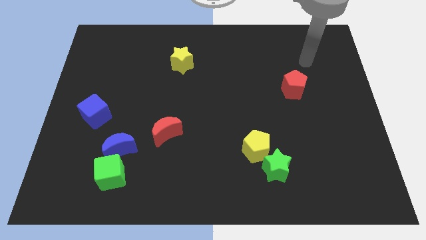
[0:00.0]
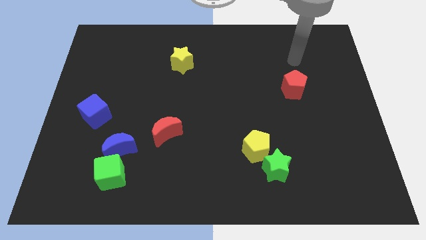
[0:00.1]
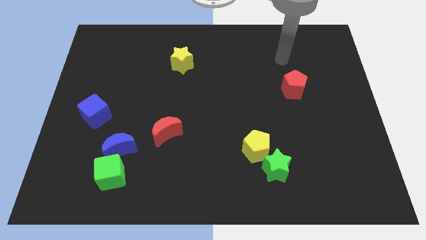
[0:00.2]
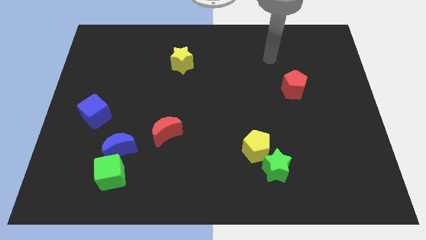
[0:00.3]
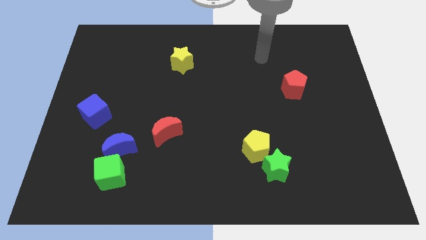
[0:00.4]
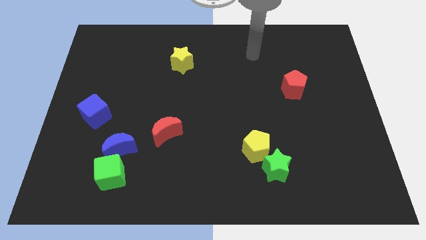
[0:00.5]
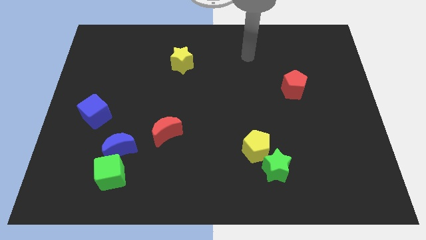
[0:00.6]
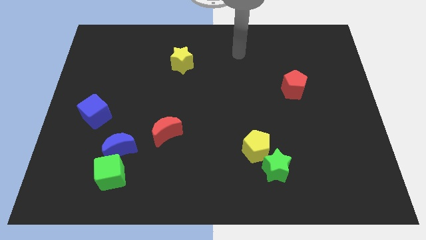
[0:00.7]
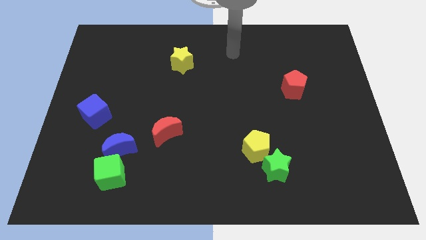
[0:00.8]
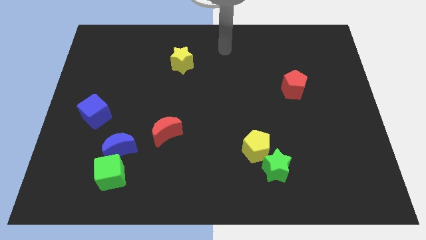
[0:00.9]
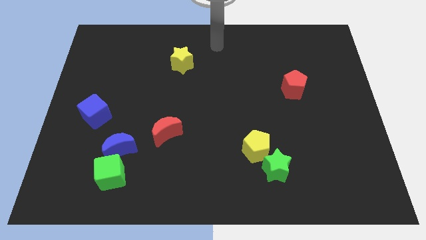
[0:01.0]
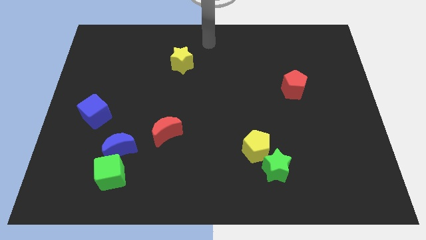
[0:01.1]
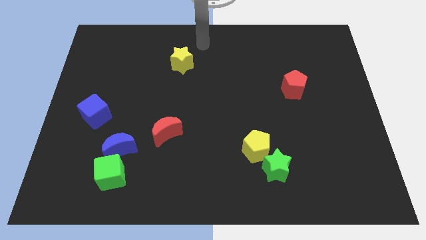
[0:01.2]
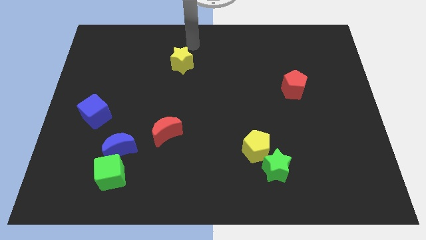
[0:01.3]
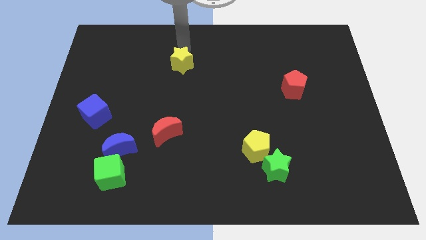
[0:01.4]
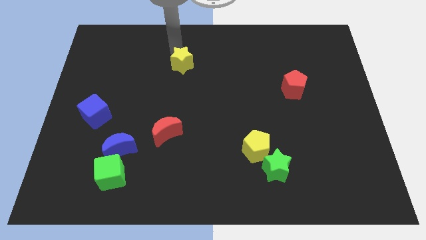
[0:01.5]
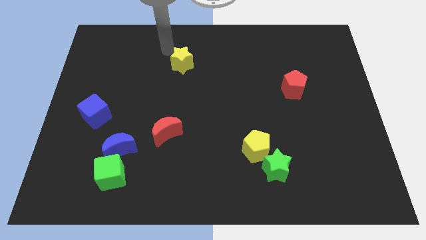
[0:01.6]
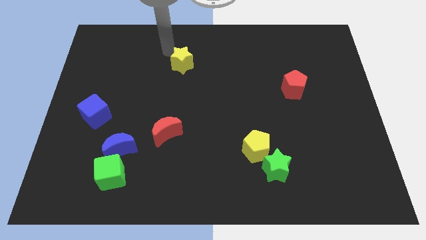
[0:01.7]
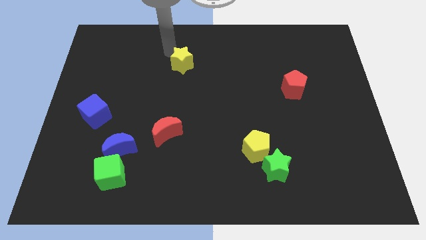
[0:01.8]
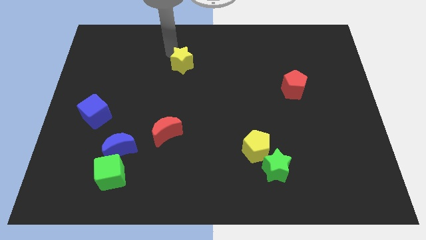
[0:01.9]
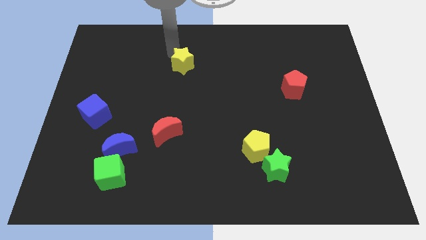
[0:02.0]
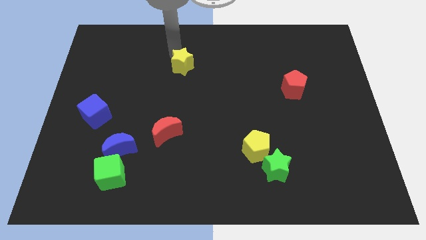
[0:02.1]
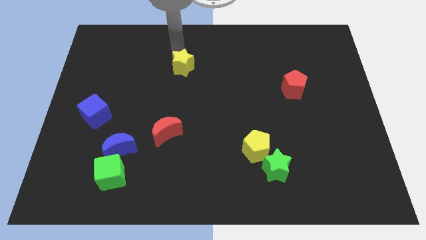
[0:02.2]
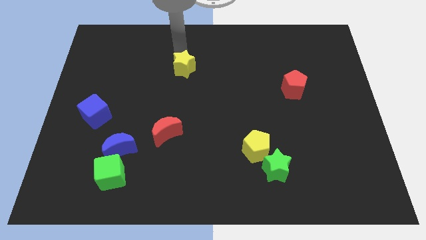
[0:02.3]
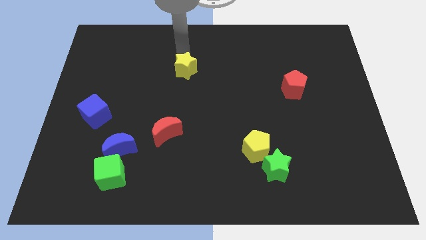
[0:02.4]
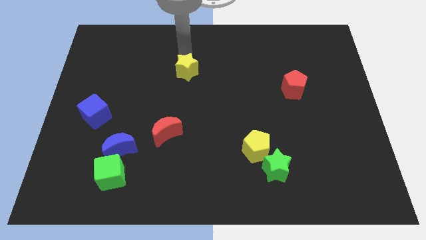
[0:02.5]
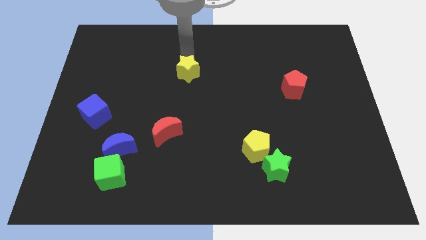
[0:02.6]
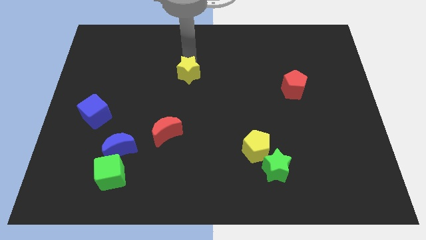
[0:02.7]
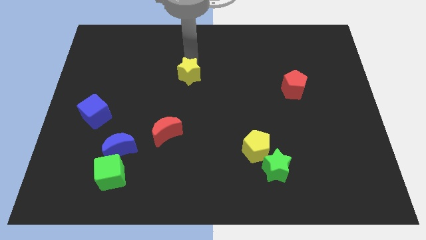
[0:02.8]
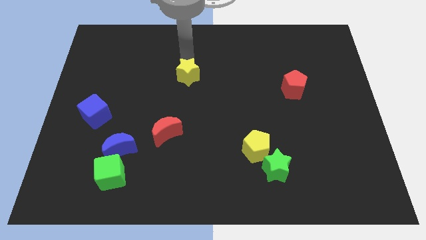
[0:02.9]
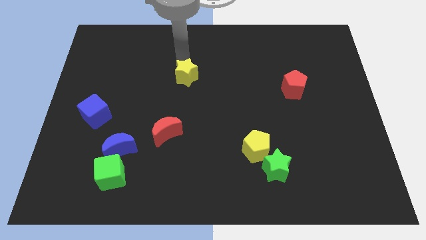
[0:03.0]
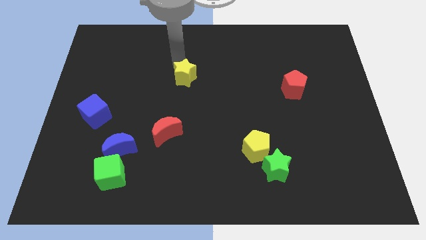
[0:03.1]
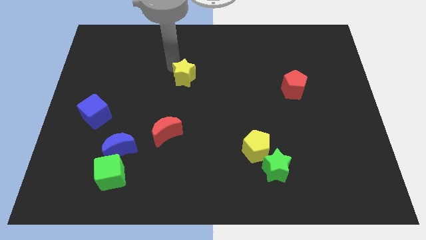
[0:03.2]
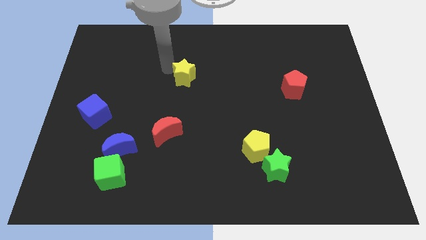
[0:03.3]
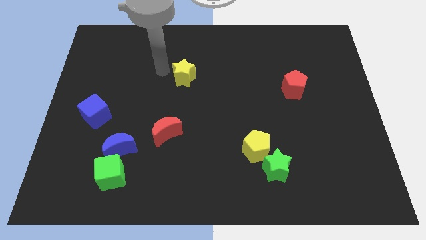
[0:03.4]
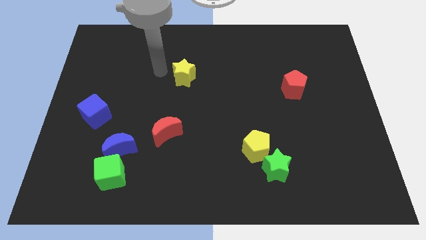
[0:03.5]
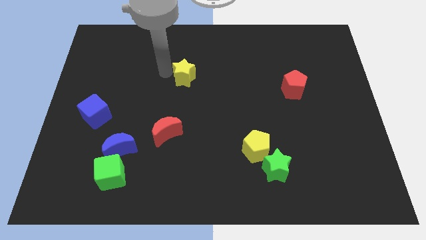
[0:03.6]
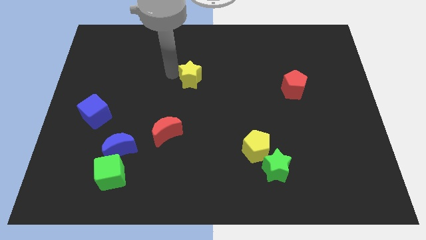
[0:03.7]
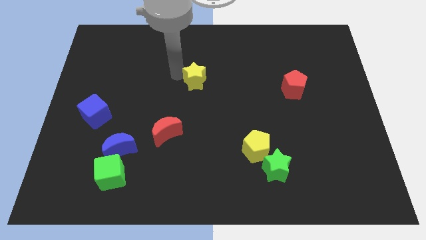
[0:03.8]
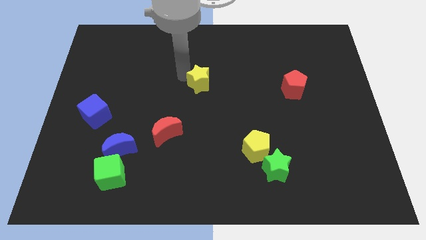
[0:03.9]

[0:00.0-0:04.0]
slightly slide the yellow star down and right

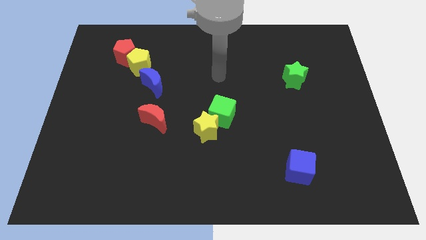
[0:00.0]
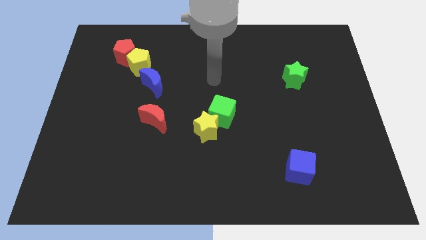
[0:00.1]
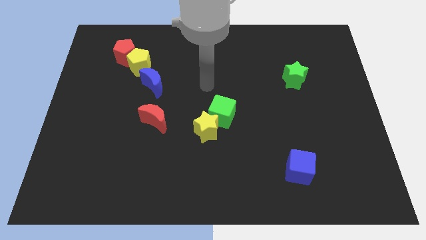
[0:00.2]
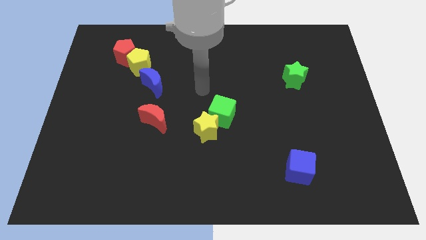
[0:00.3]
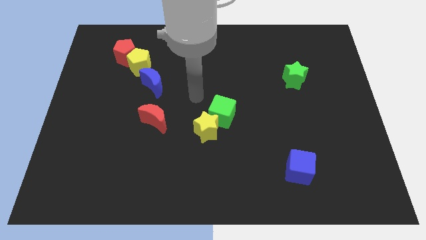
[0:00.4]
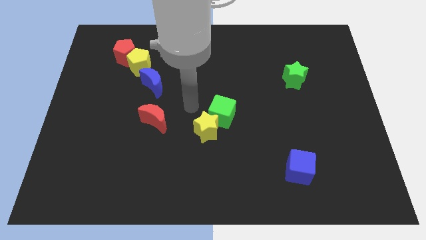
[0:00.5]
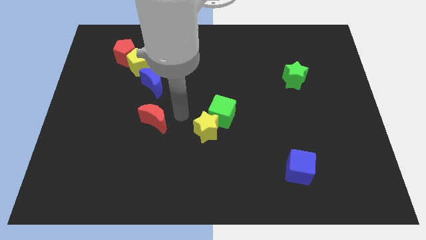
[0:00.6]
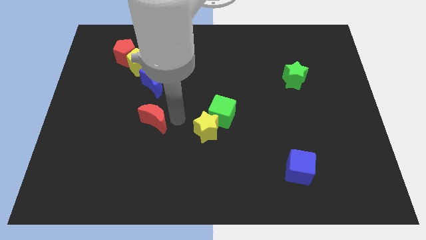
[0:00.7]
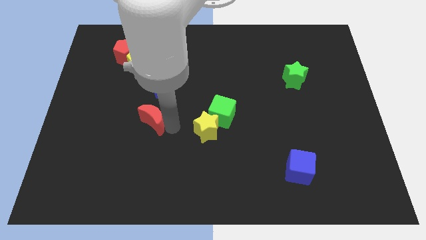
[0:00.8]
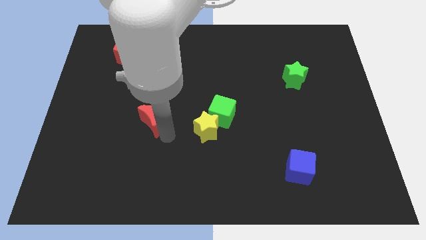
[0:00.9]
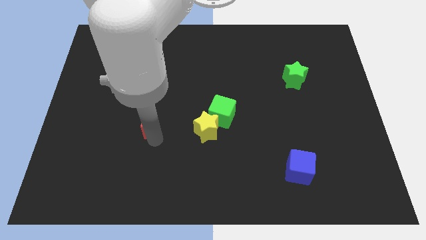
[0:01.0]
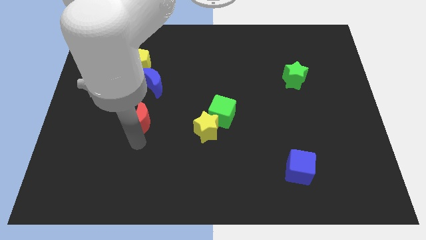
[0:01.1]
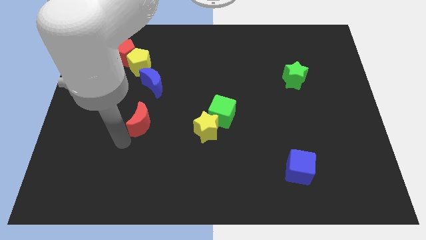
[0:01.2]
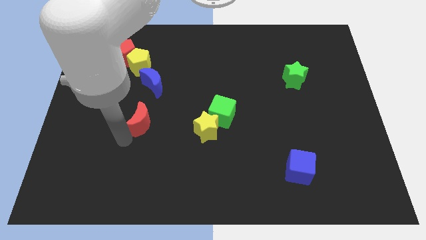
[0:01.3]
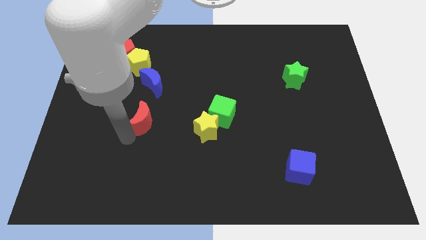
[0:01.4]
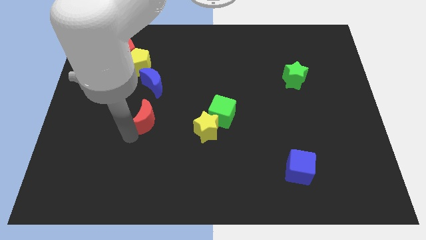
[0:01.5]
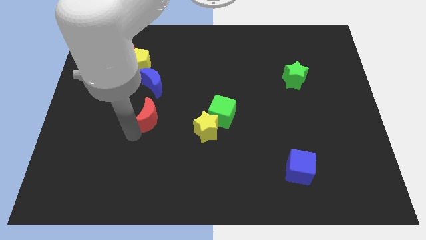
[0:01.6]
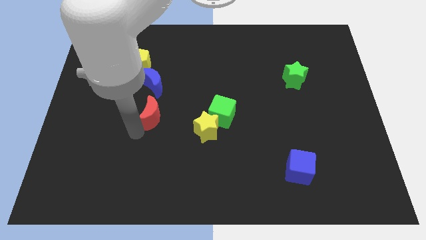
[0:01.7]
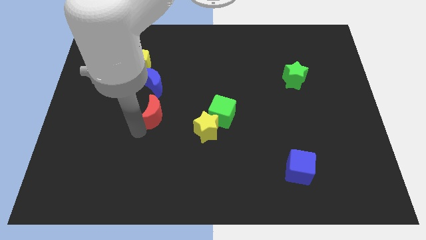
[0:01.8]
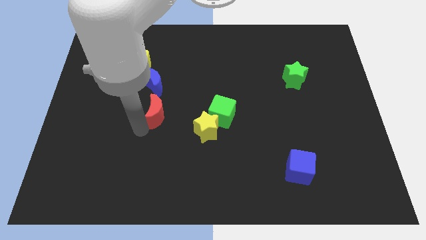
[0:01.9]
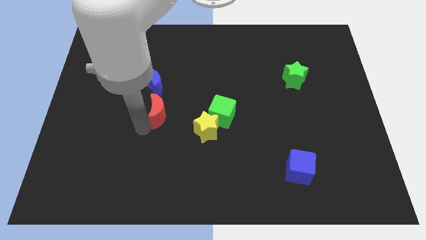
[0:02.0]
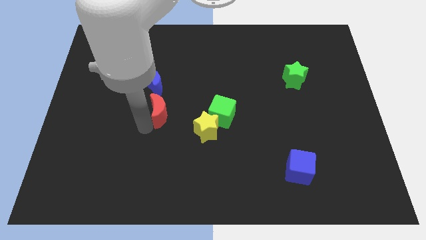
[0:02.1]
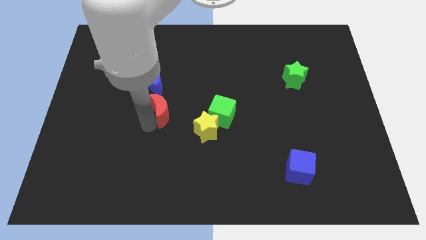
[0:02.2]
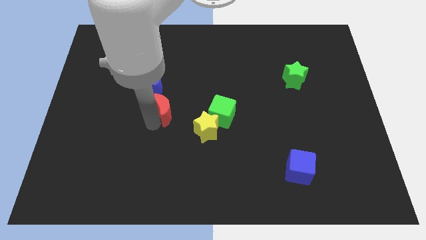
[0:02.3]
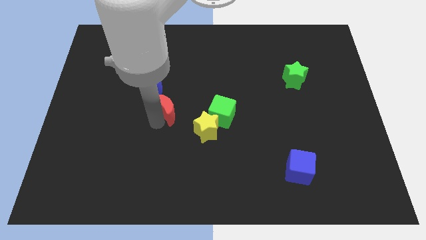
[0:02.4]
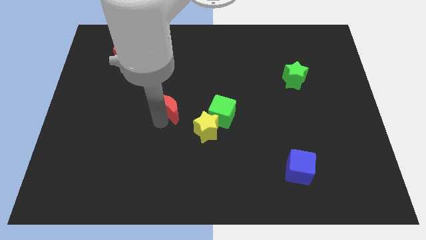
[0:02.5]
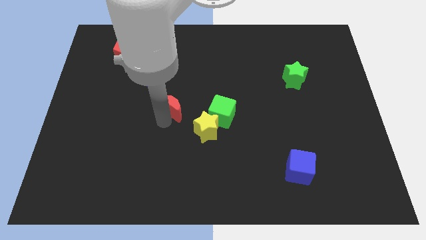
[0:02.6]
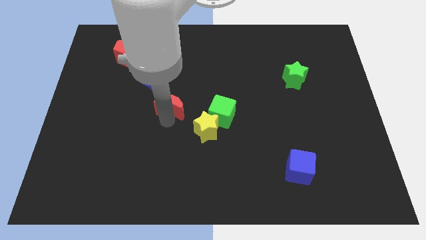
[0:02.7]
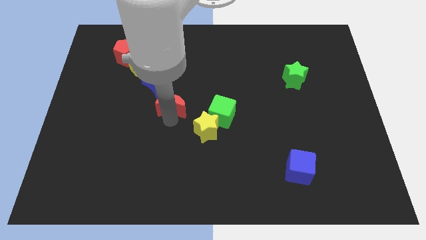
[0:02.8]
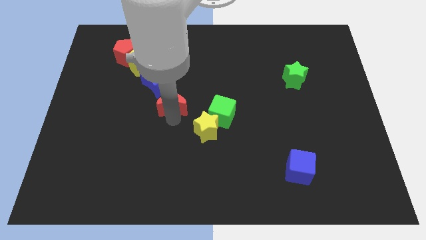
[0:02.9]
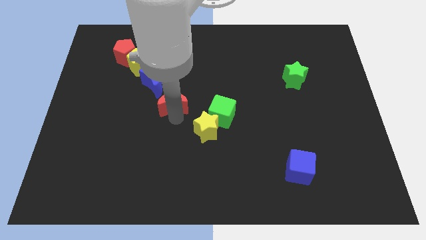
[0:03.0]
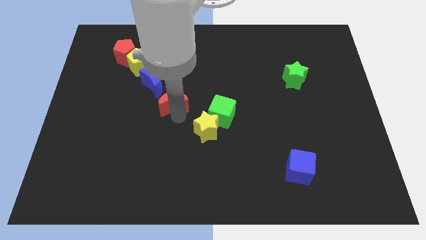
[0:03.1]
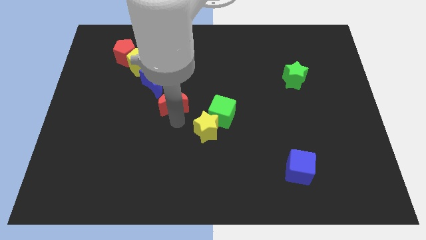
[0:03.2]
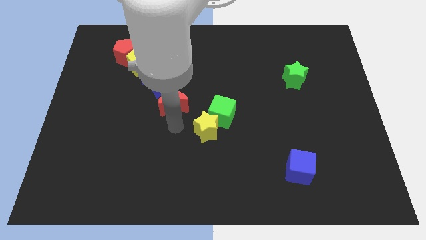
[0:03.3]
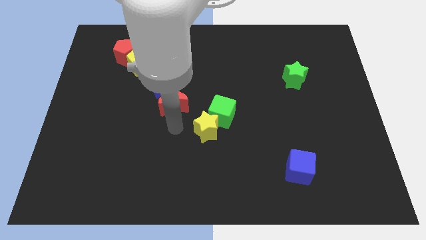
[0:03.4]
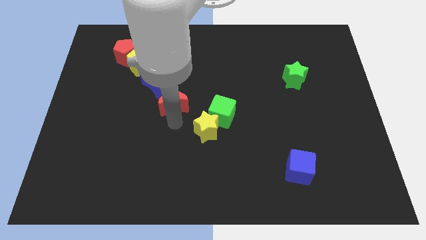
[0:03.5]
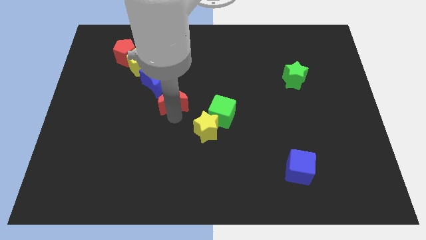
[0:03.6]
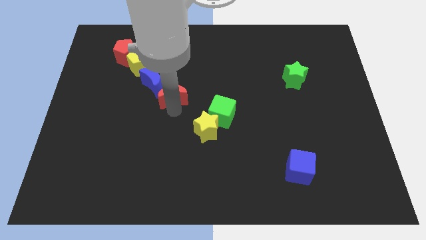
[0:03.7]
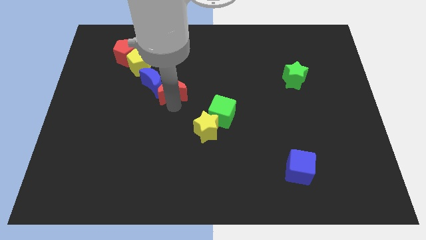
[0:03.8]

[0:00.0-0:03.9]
slightly push the red moon upwards

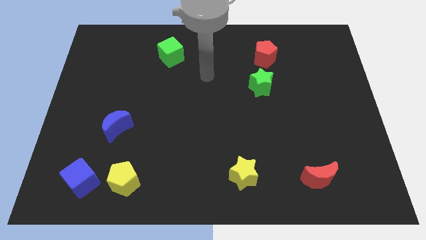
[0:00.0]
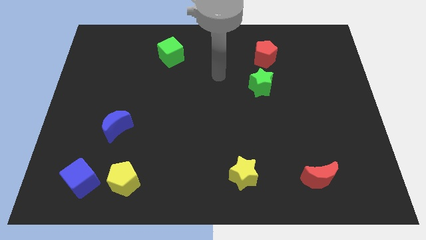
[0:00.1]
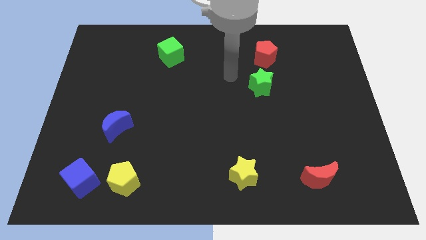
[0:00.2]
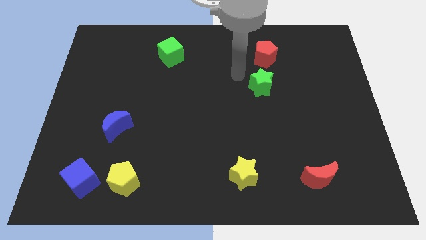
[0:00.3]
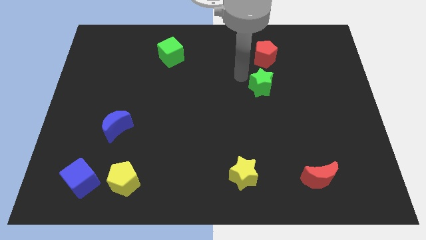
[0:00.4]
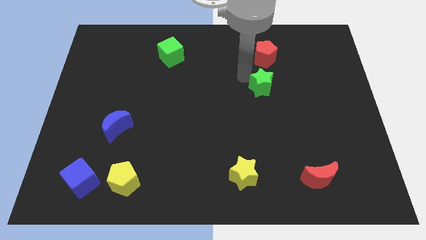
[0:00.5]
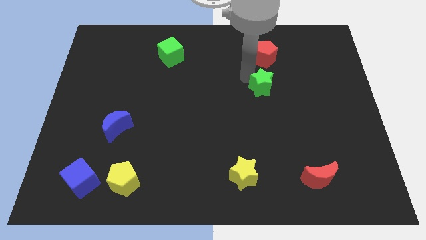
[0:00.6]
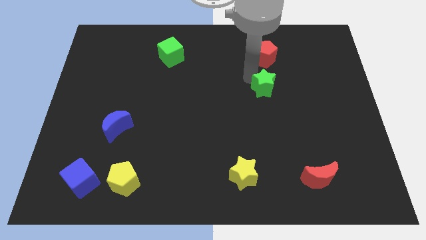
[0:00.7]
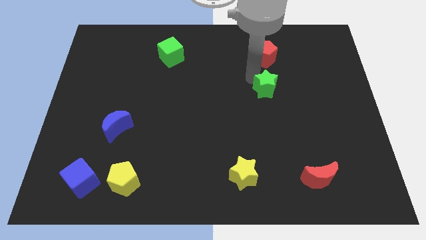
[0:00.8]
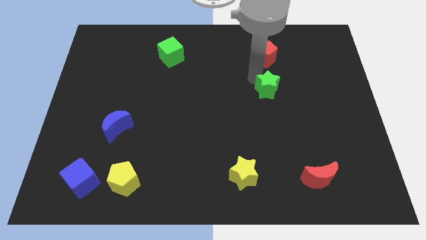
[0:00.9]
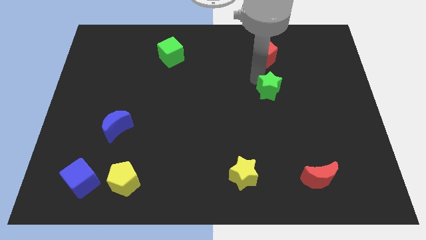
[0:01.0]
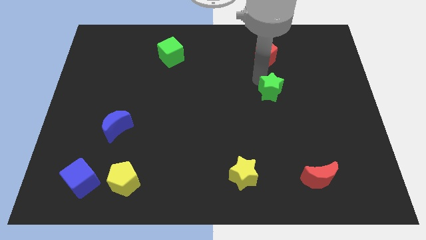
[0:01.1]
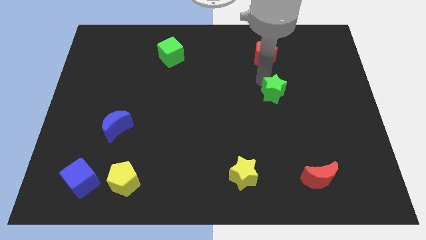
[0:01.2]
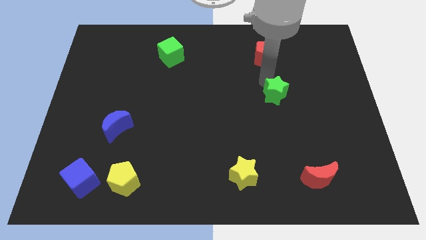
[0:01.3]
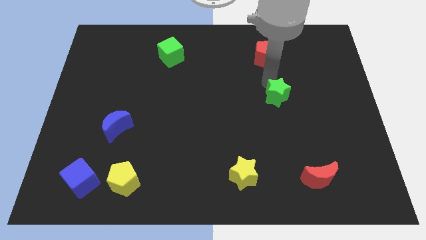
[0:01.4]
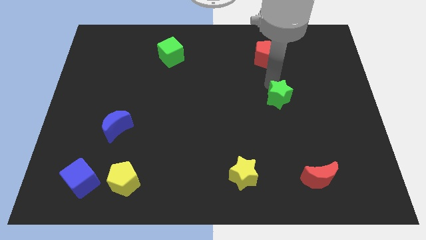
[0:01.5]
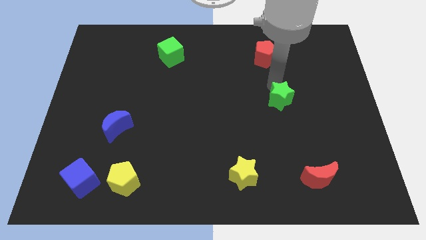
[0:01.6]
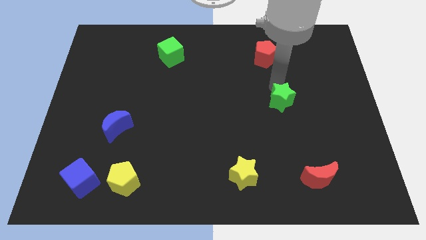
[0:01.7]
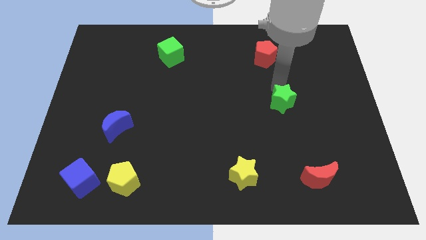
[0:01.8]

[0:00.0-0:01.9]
push the green star a little bit down and then to the right
